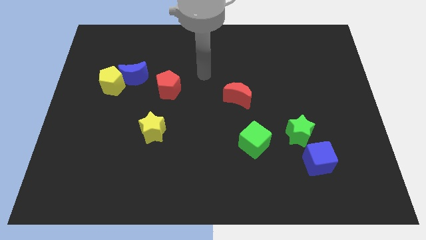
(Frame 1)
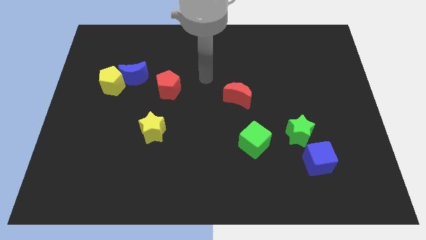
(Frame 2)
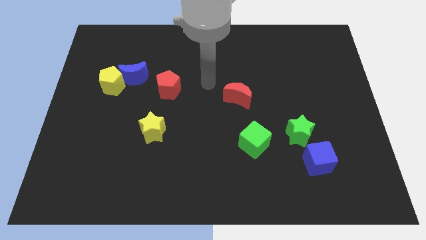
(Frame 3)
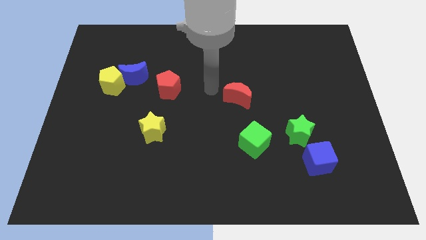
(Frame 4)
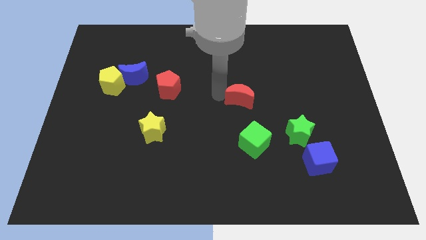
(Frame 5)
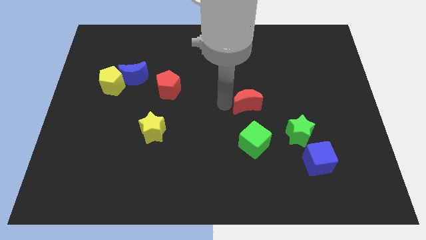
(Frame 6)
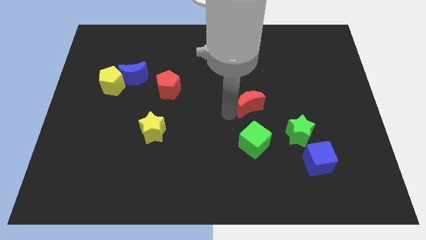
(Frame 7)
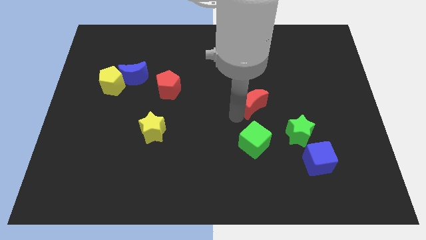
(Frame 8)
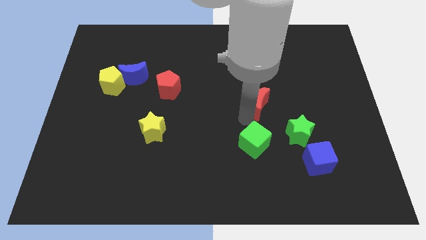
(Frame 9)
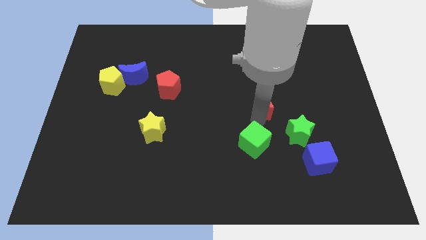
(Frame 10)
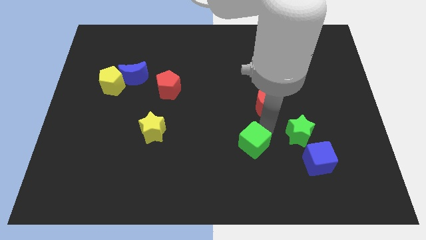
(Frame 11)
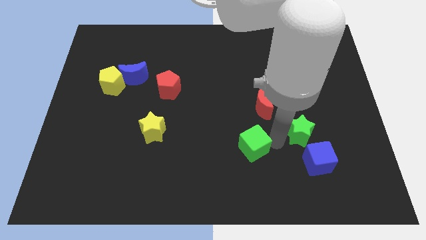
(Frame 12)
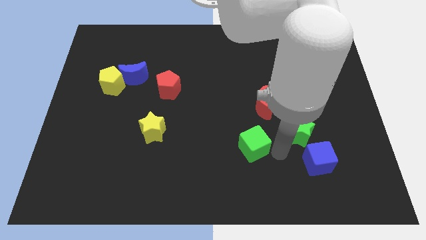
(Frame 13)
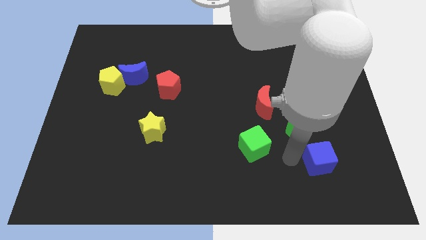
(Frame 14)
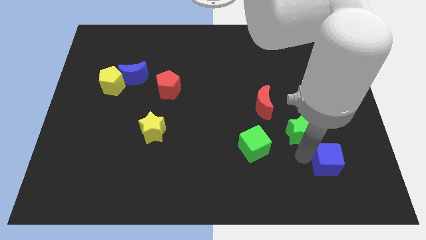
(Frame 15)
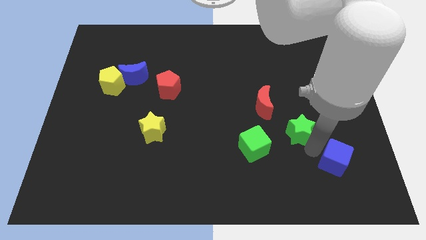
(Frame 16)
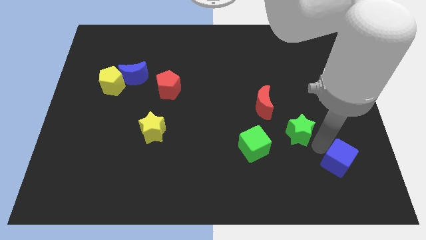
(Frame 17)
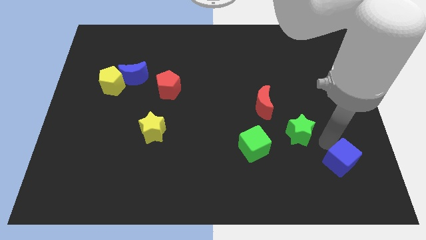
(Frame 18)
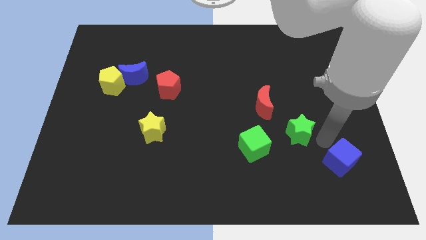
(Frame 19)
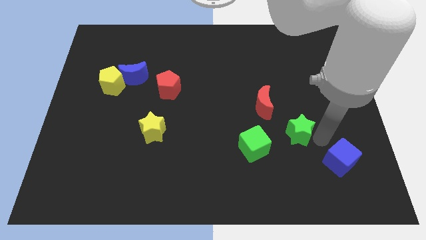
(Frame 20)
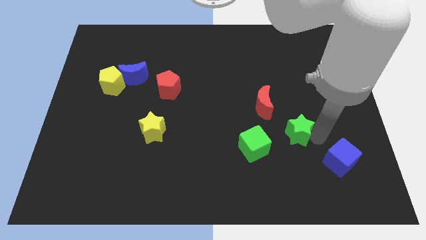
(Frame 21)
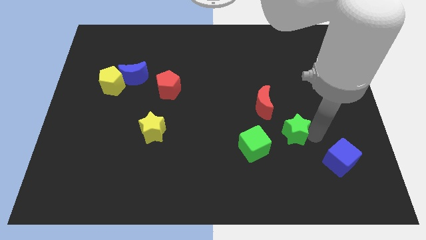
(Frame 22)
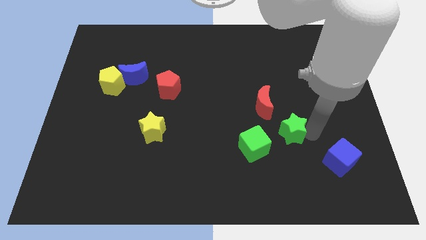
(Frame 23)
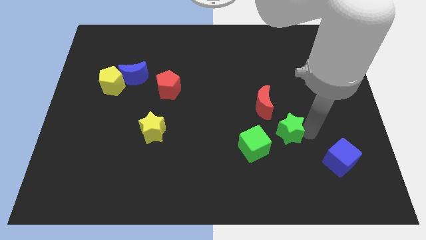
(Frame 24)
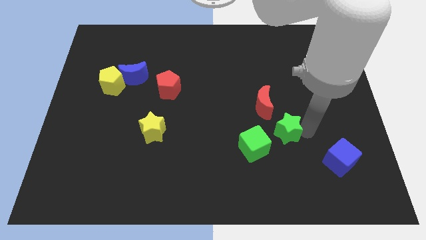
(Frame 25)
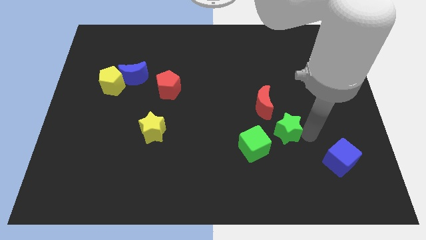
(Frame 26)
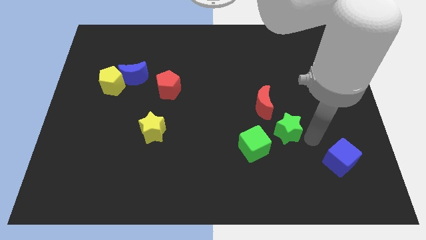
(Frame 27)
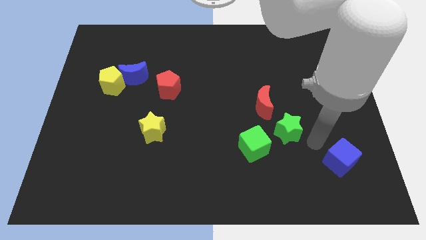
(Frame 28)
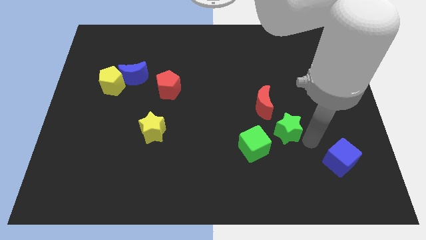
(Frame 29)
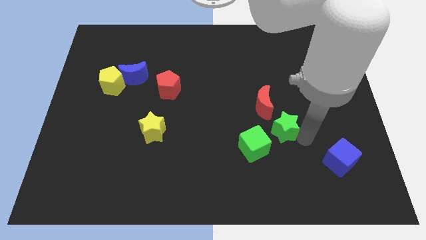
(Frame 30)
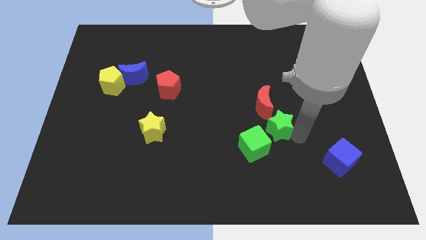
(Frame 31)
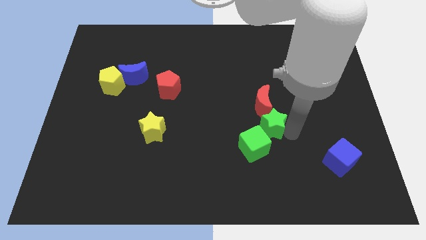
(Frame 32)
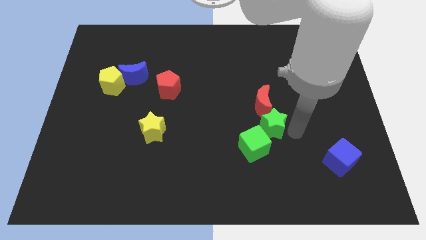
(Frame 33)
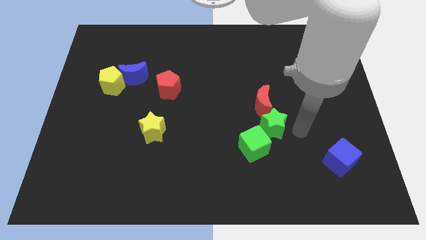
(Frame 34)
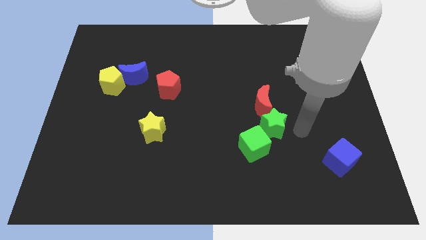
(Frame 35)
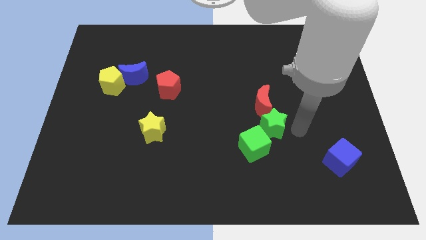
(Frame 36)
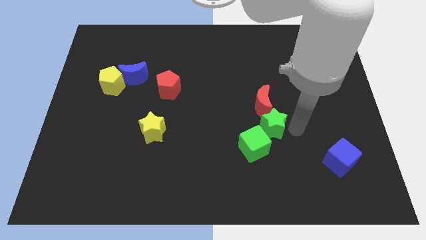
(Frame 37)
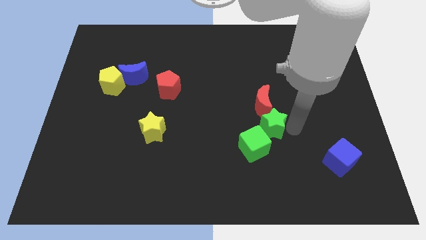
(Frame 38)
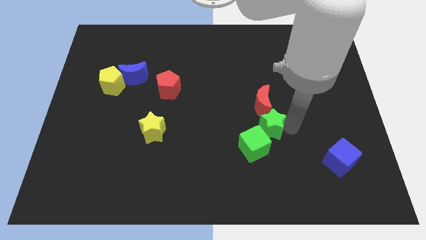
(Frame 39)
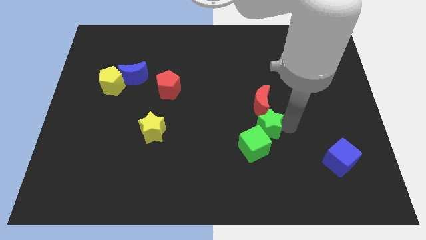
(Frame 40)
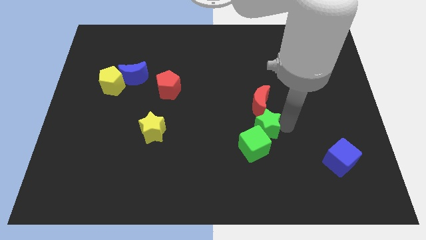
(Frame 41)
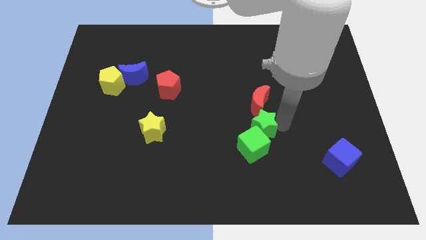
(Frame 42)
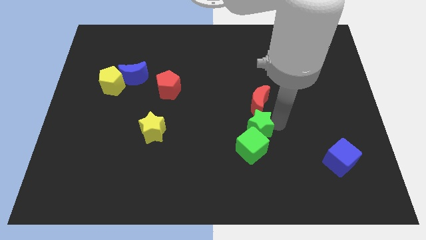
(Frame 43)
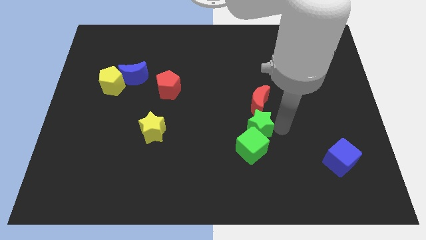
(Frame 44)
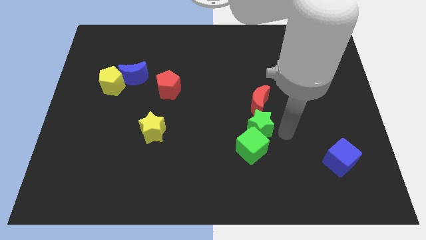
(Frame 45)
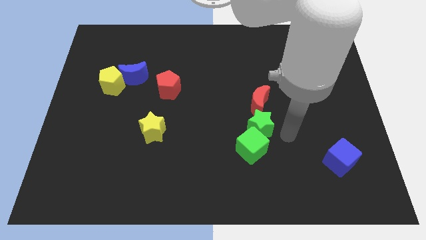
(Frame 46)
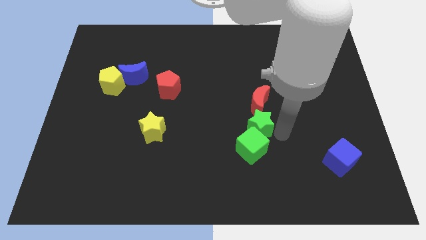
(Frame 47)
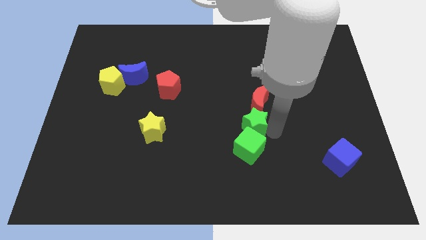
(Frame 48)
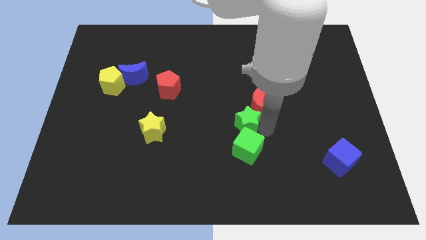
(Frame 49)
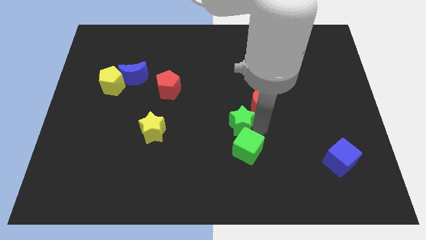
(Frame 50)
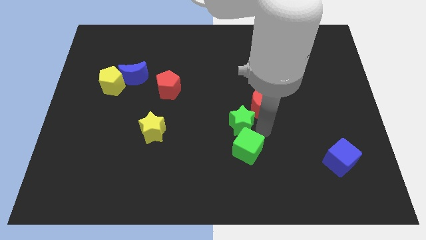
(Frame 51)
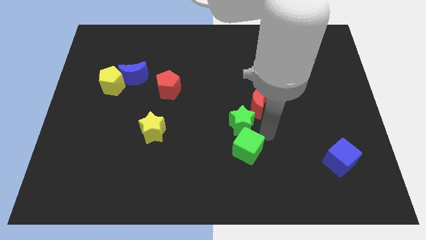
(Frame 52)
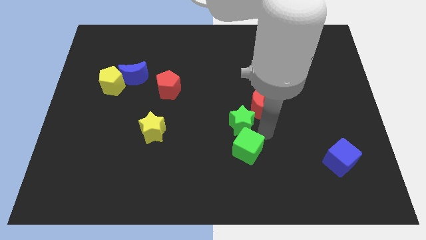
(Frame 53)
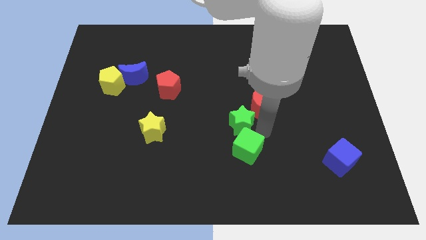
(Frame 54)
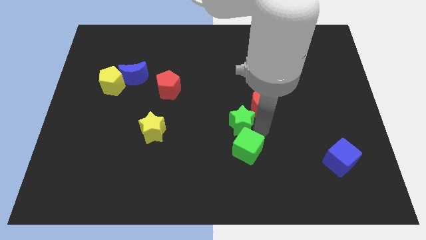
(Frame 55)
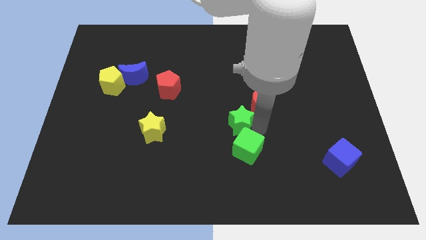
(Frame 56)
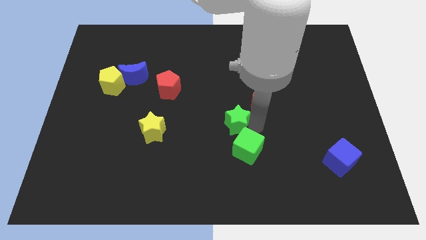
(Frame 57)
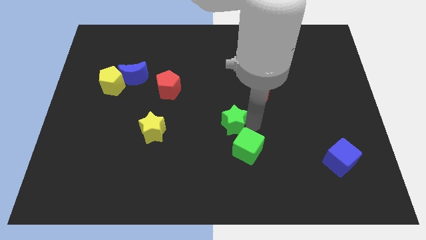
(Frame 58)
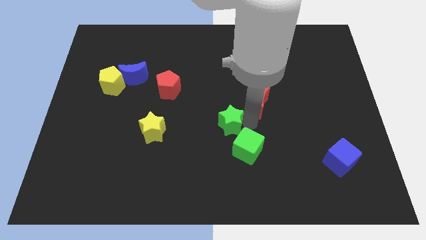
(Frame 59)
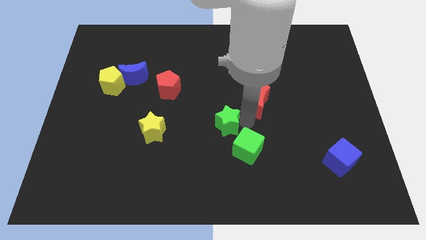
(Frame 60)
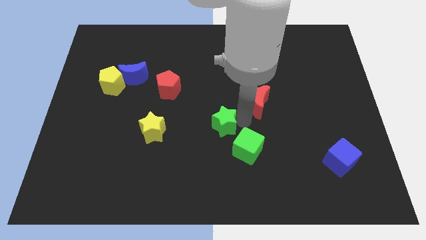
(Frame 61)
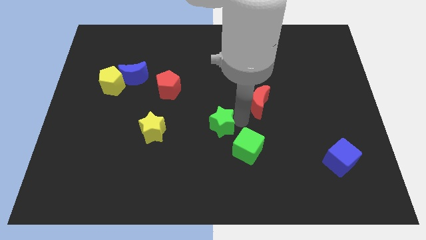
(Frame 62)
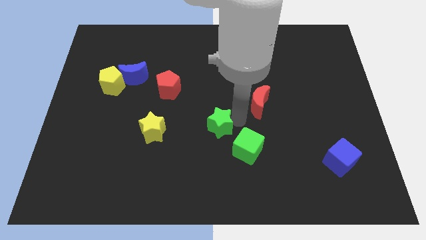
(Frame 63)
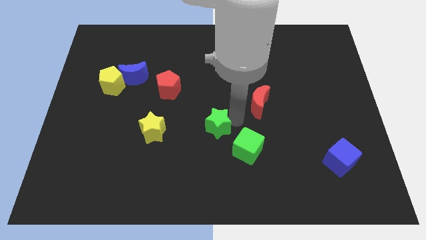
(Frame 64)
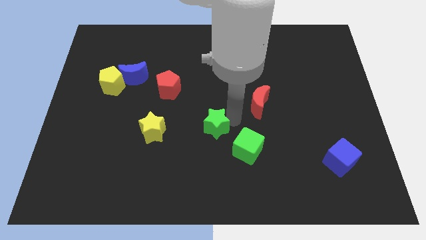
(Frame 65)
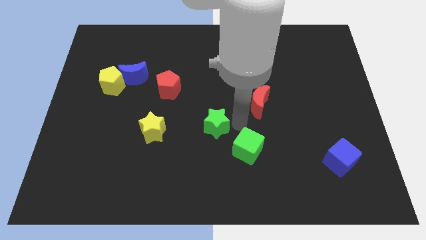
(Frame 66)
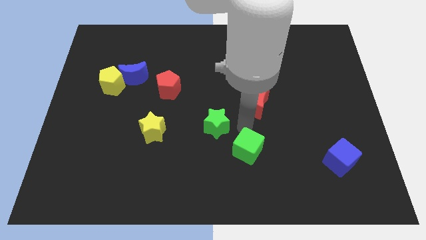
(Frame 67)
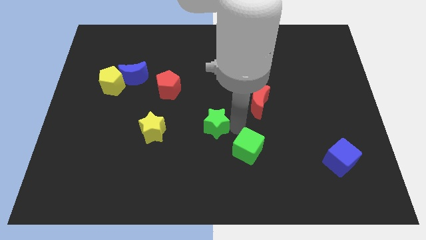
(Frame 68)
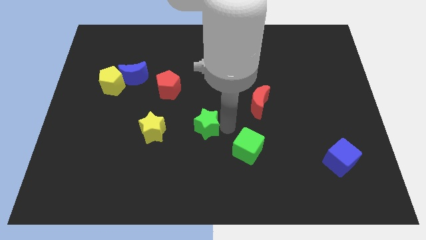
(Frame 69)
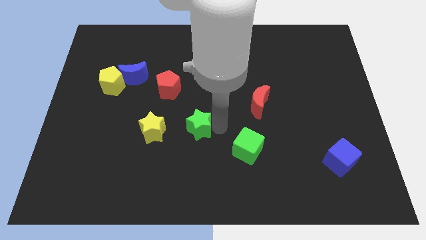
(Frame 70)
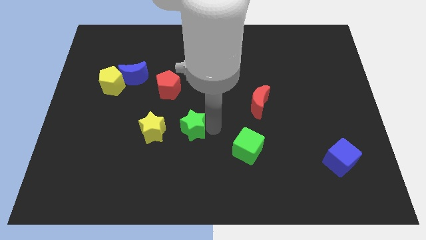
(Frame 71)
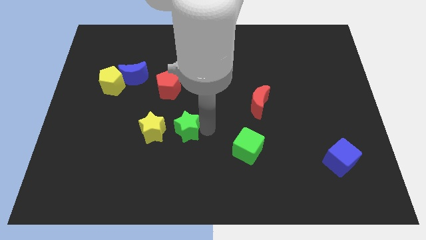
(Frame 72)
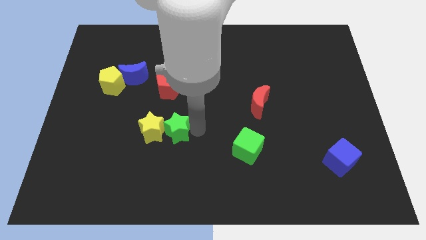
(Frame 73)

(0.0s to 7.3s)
move the green star towards the yellow star
